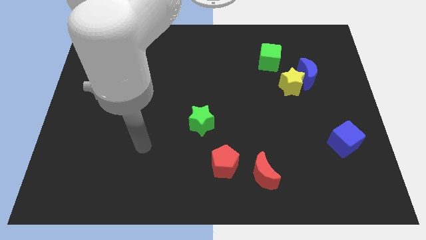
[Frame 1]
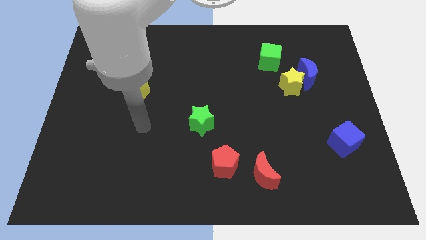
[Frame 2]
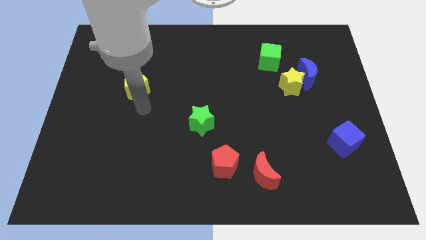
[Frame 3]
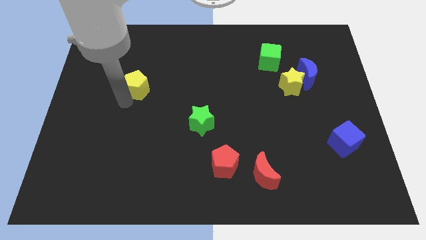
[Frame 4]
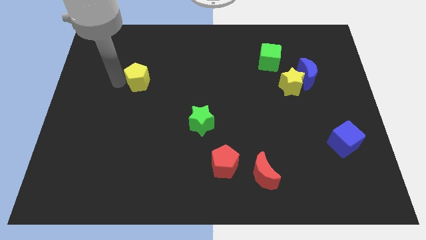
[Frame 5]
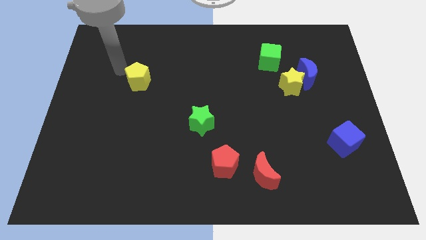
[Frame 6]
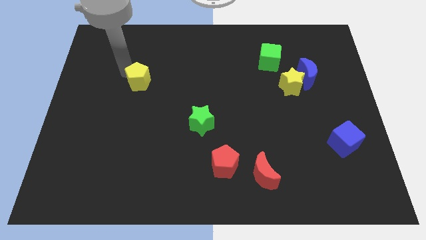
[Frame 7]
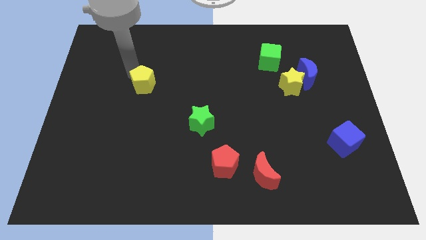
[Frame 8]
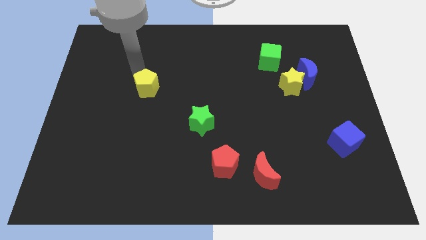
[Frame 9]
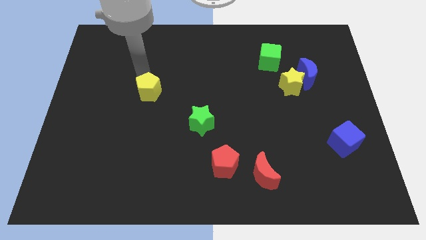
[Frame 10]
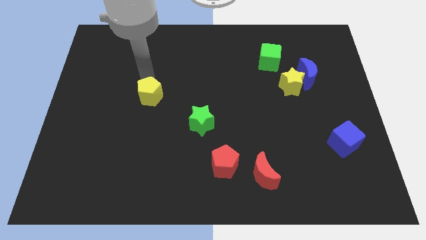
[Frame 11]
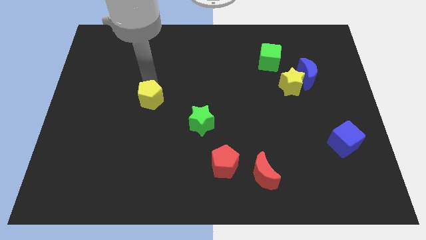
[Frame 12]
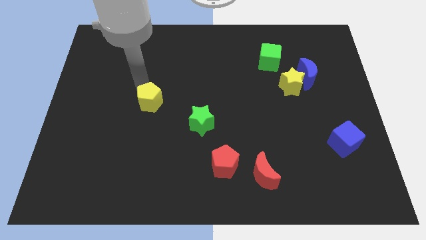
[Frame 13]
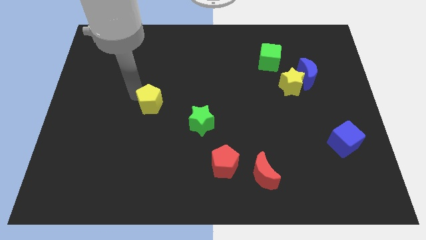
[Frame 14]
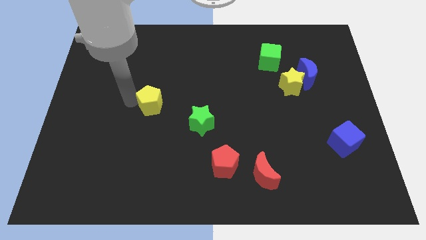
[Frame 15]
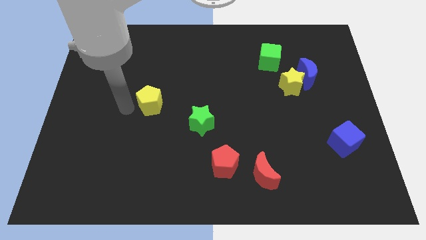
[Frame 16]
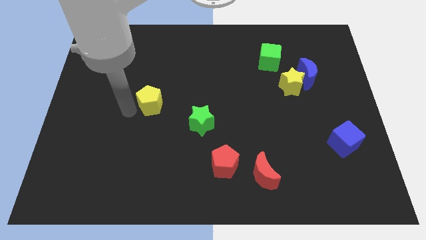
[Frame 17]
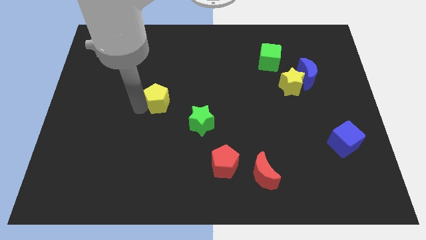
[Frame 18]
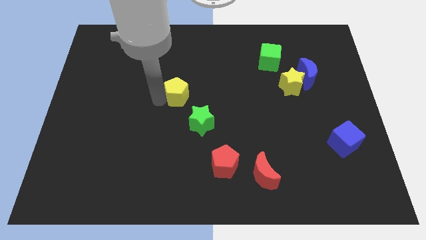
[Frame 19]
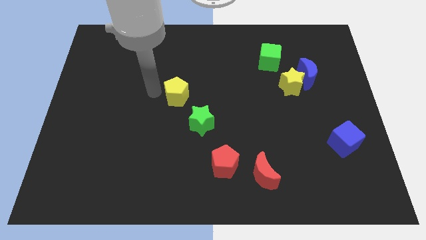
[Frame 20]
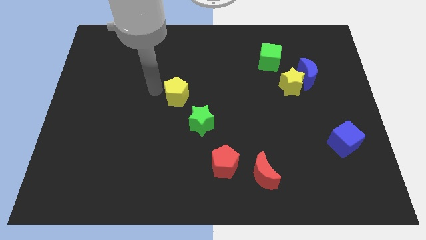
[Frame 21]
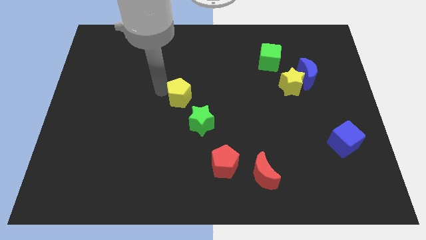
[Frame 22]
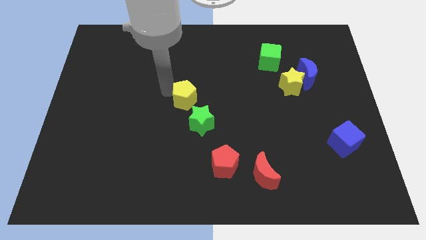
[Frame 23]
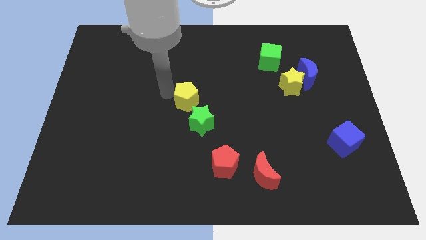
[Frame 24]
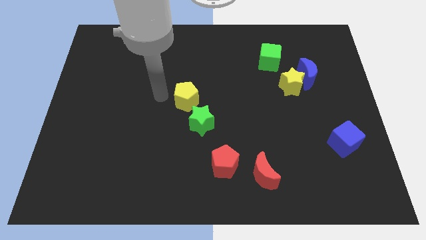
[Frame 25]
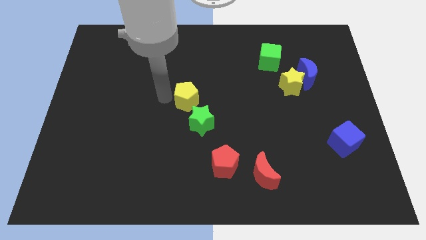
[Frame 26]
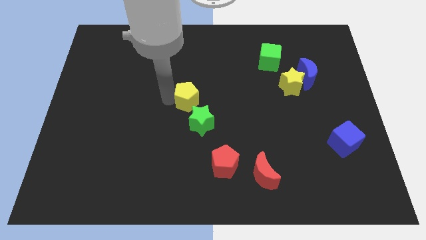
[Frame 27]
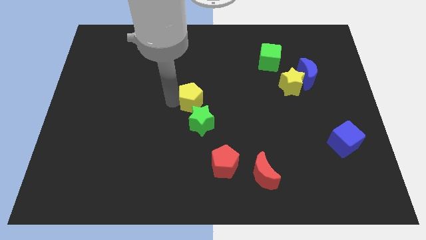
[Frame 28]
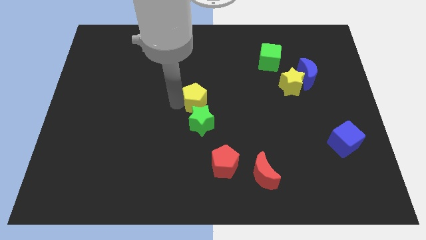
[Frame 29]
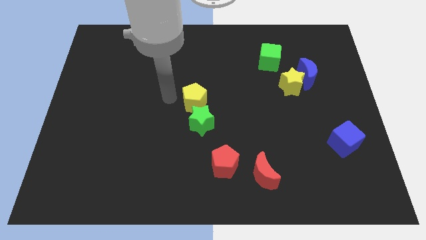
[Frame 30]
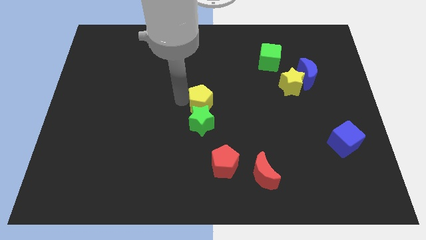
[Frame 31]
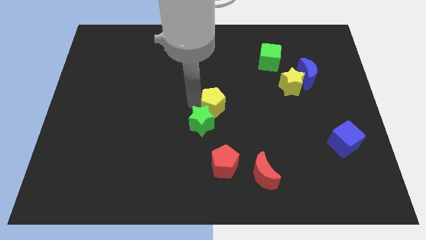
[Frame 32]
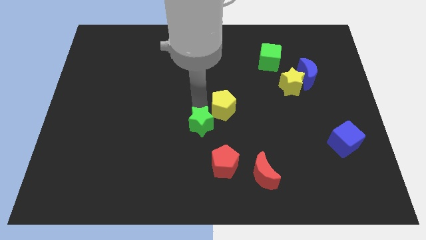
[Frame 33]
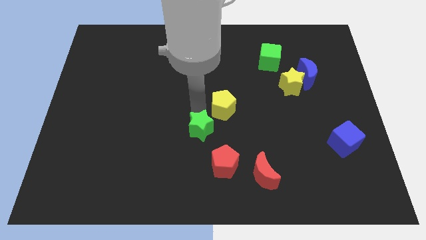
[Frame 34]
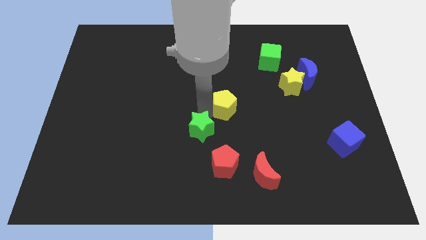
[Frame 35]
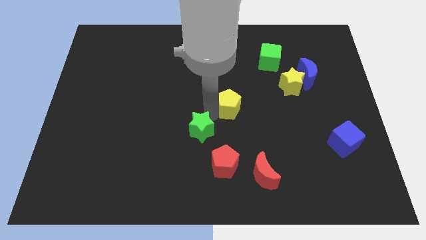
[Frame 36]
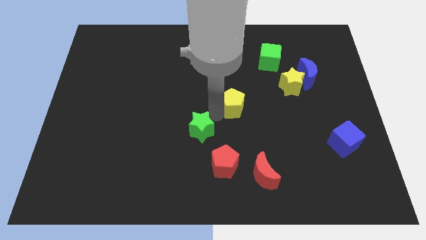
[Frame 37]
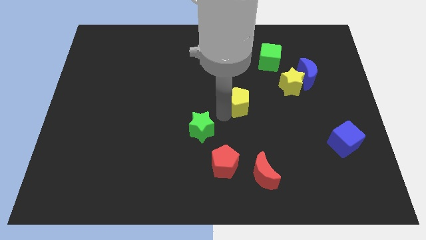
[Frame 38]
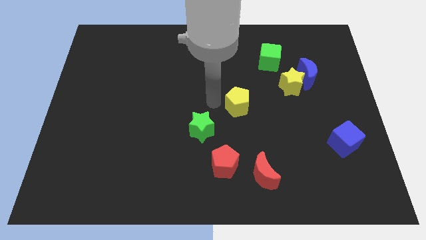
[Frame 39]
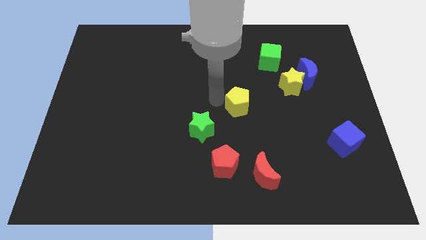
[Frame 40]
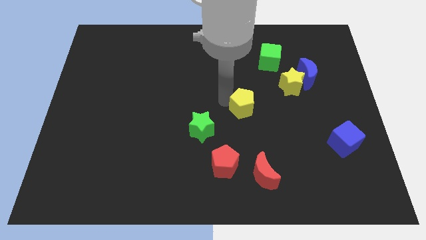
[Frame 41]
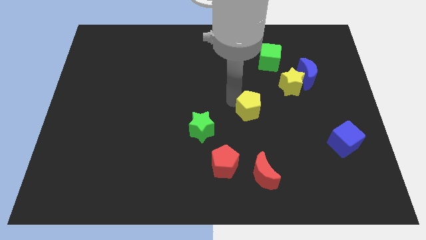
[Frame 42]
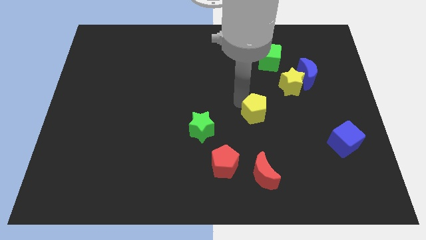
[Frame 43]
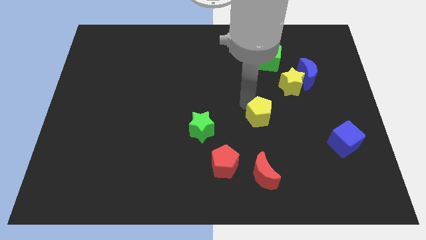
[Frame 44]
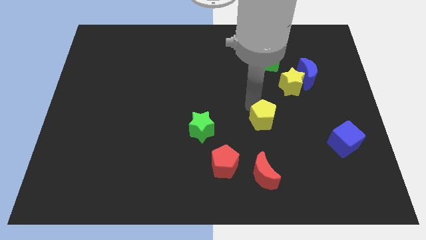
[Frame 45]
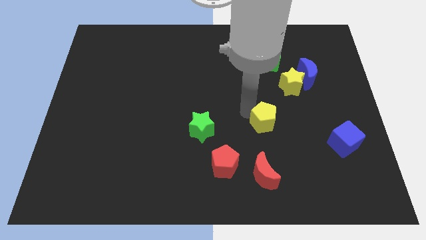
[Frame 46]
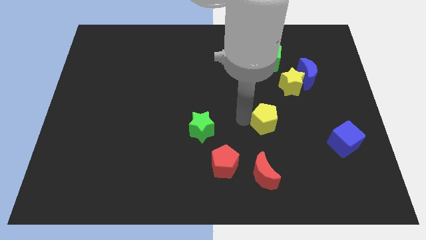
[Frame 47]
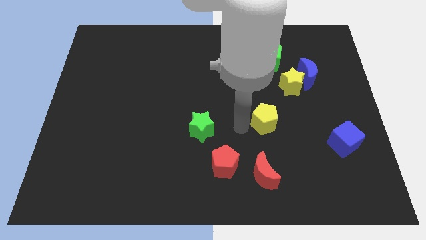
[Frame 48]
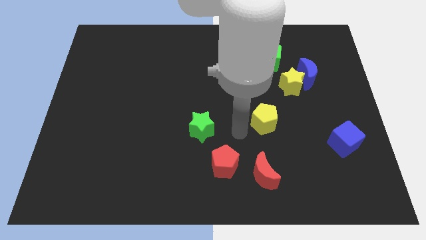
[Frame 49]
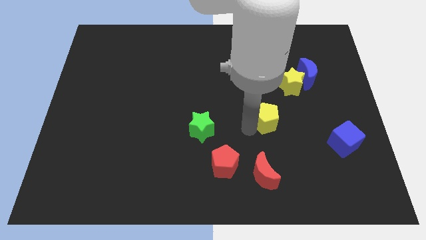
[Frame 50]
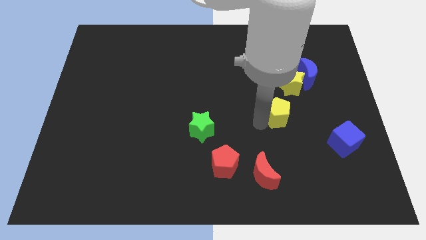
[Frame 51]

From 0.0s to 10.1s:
move the yellow pentagon below the yellow star

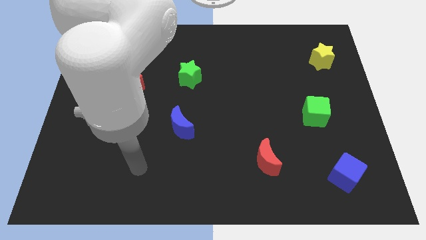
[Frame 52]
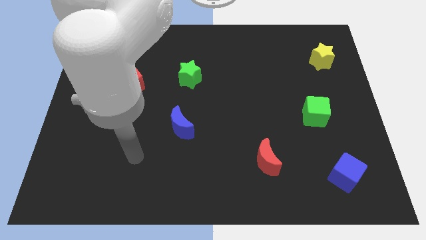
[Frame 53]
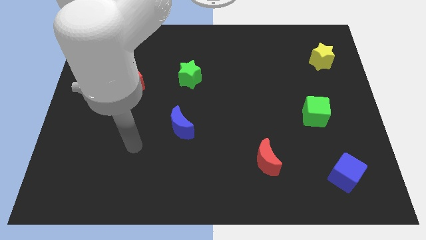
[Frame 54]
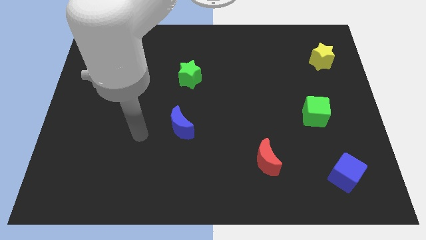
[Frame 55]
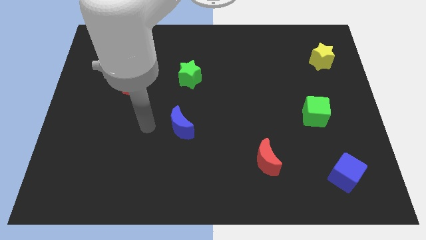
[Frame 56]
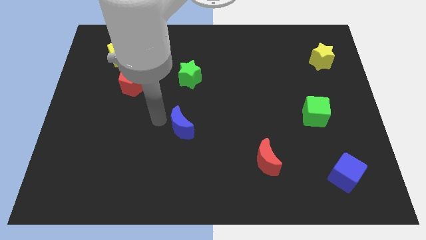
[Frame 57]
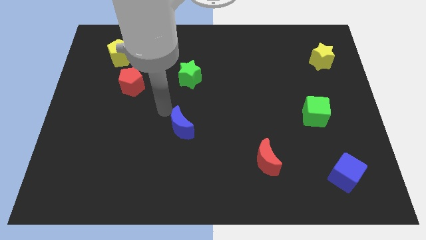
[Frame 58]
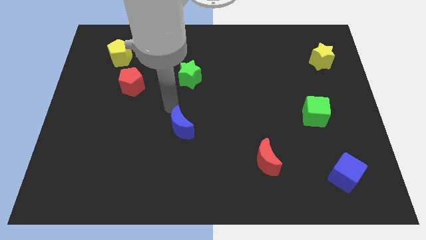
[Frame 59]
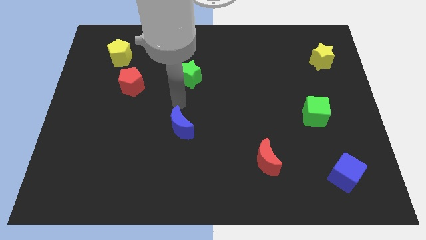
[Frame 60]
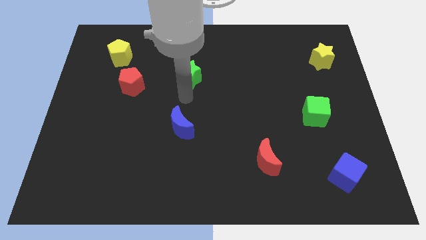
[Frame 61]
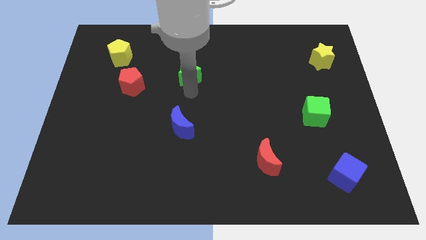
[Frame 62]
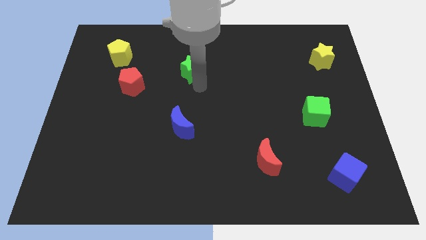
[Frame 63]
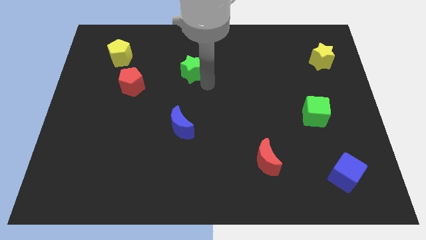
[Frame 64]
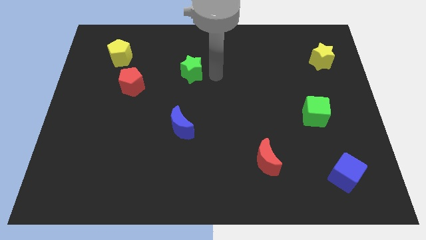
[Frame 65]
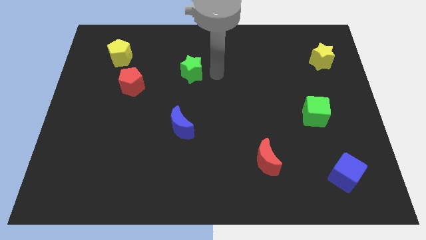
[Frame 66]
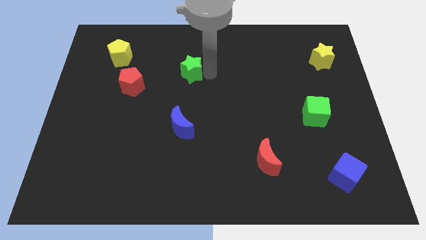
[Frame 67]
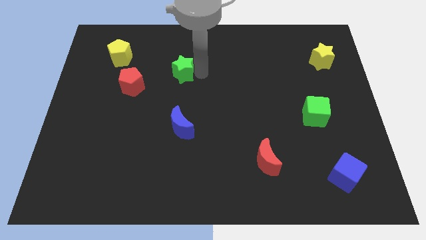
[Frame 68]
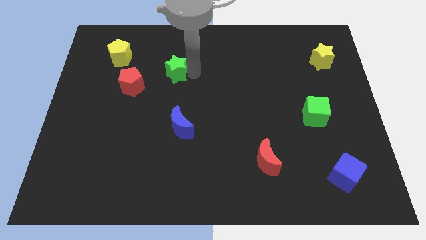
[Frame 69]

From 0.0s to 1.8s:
put the green star to the top right side of the red pentagon
